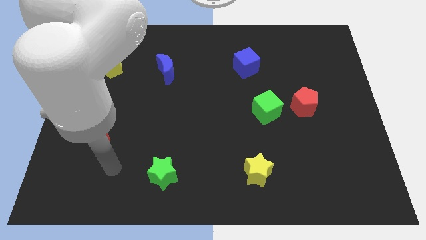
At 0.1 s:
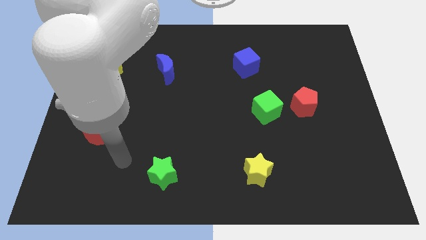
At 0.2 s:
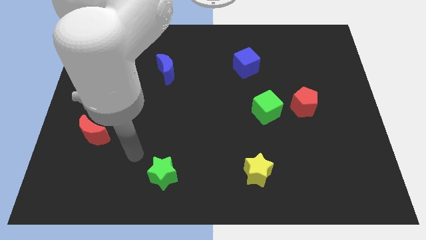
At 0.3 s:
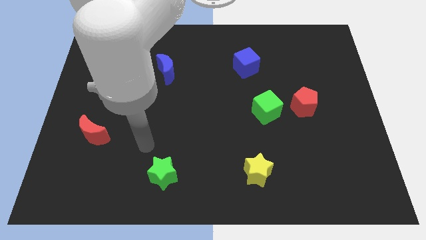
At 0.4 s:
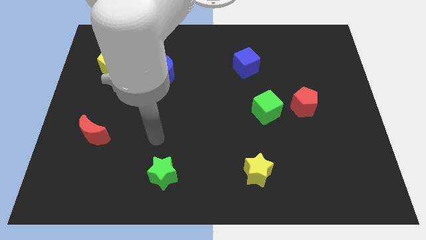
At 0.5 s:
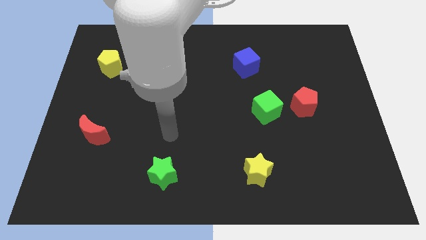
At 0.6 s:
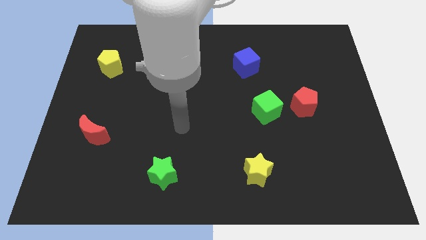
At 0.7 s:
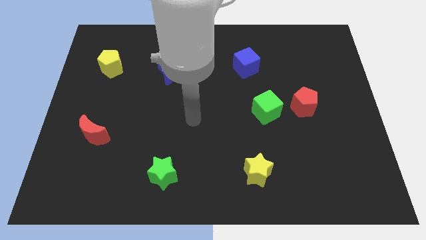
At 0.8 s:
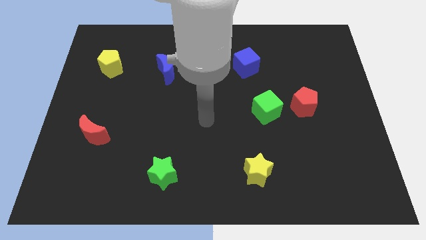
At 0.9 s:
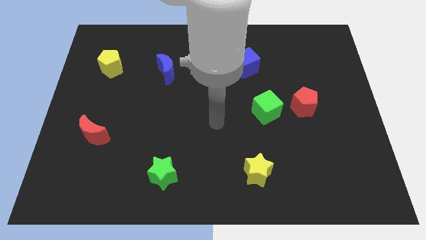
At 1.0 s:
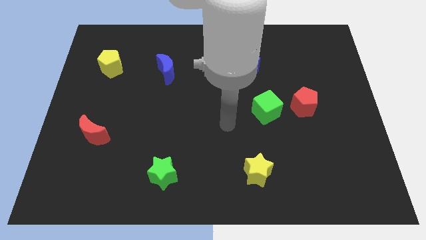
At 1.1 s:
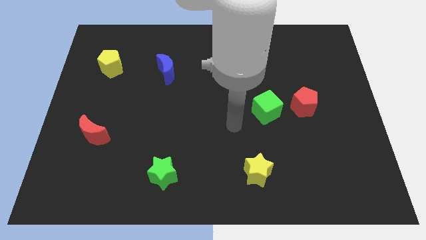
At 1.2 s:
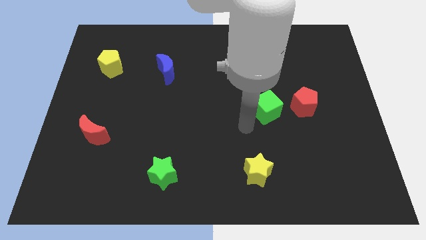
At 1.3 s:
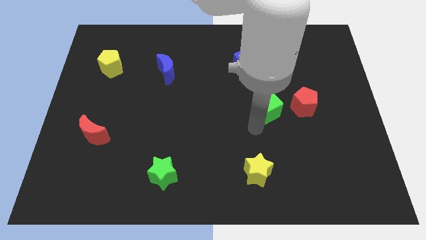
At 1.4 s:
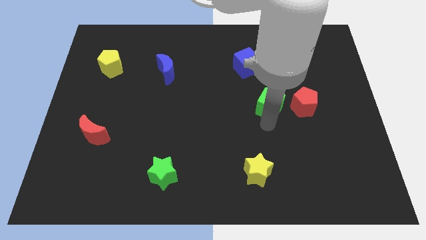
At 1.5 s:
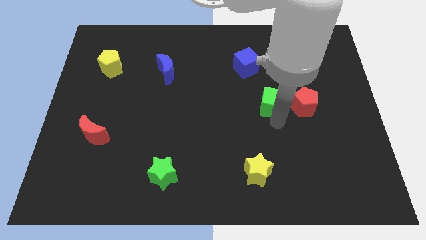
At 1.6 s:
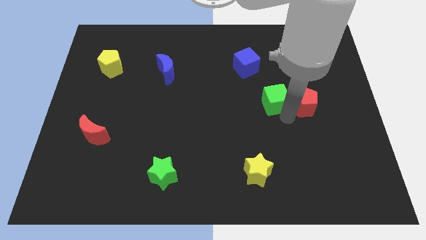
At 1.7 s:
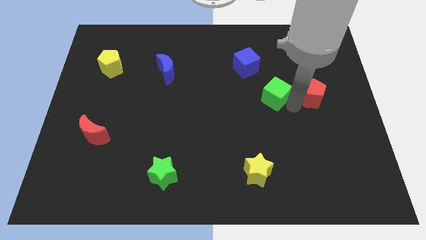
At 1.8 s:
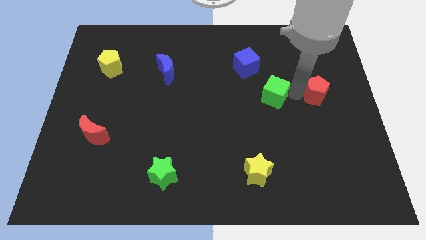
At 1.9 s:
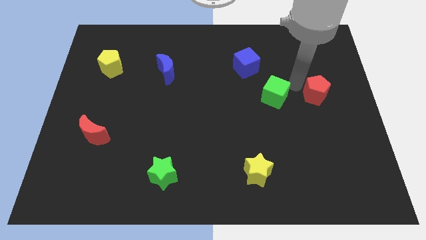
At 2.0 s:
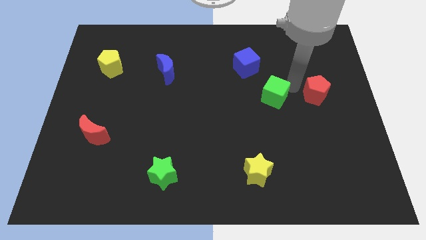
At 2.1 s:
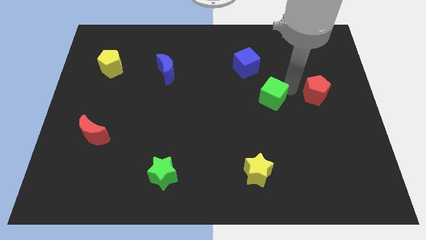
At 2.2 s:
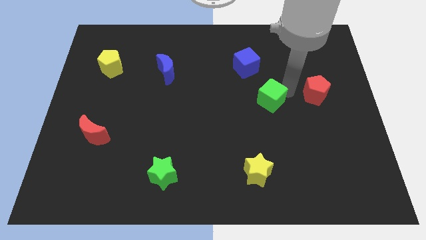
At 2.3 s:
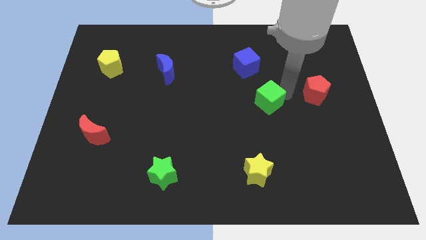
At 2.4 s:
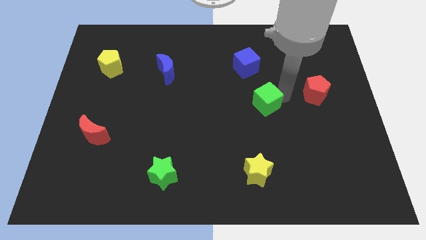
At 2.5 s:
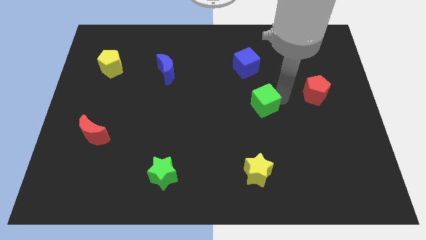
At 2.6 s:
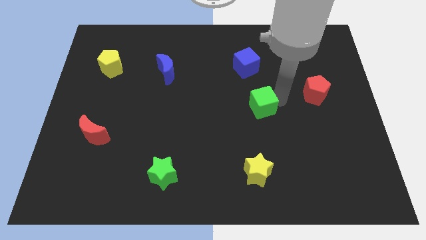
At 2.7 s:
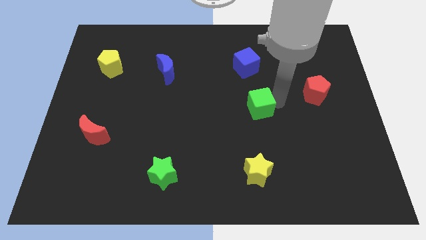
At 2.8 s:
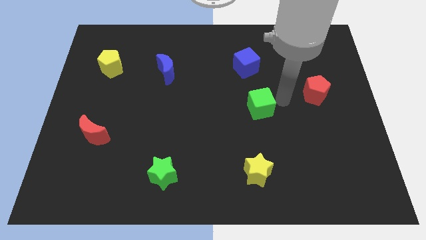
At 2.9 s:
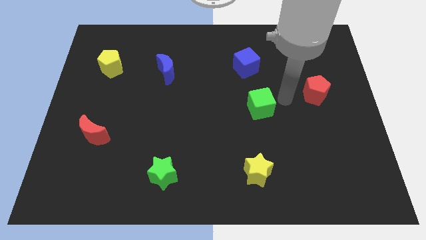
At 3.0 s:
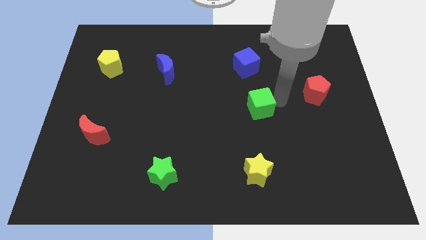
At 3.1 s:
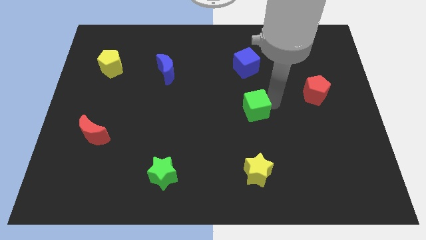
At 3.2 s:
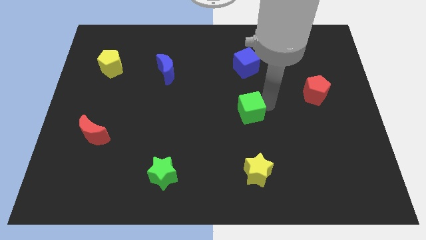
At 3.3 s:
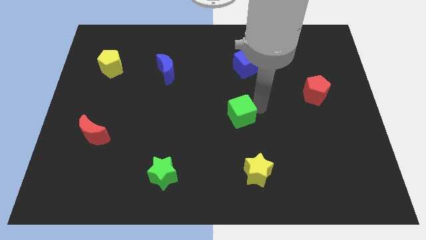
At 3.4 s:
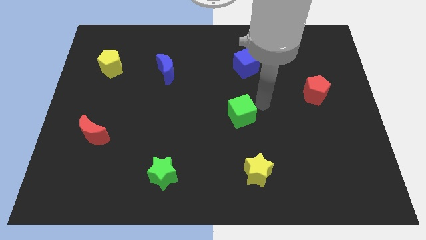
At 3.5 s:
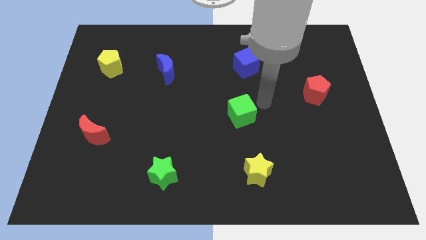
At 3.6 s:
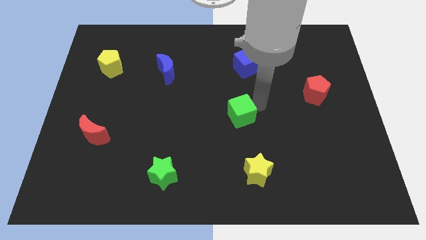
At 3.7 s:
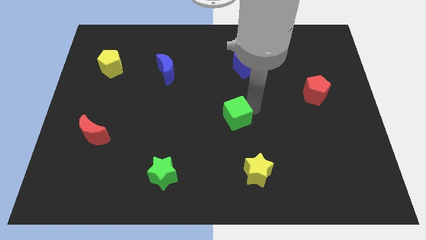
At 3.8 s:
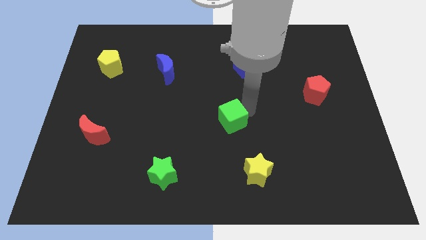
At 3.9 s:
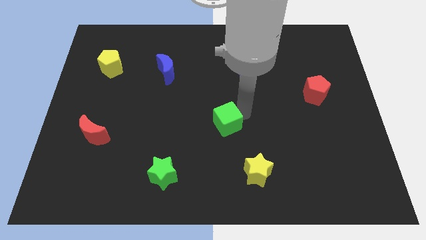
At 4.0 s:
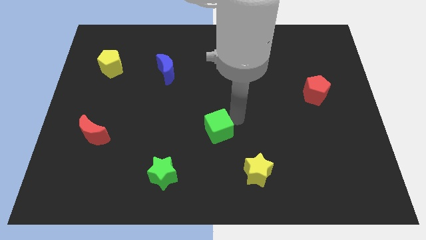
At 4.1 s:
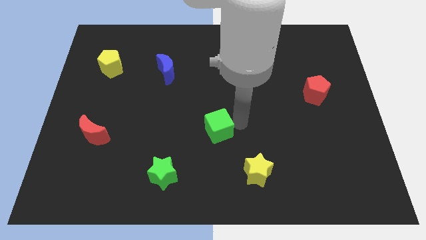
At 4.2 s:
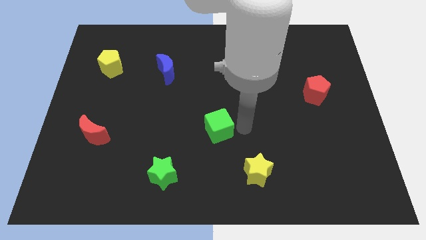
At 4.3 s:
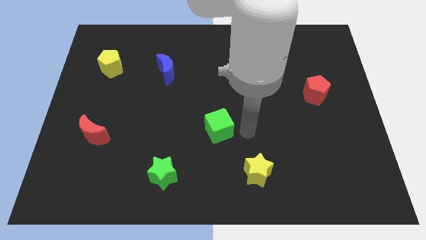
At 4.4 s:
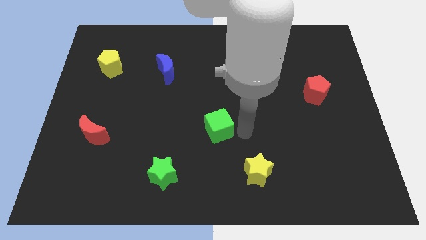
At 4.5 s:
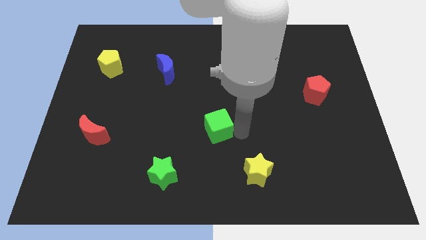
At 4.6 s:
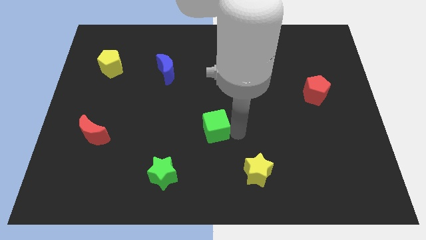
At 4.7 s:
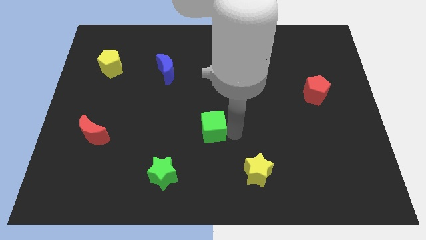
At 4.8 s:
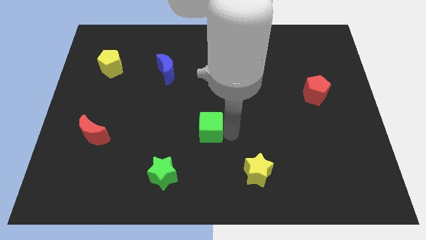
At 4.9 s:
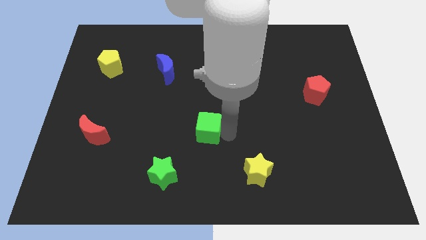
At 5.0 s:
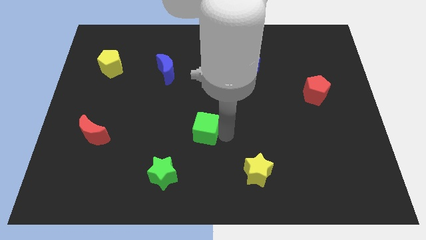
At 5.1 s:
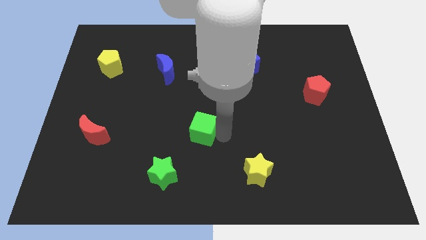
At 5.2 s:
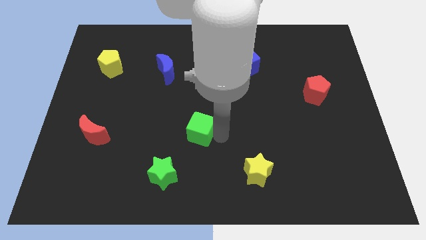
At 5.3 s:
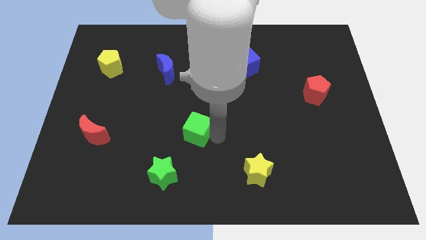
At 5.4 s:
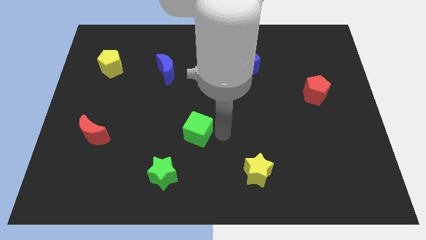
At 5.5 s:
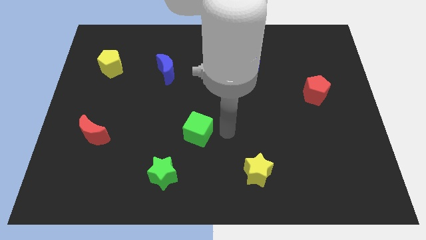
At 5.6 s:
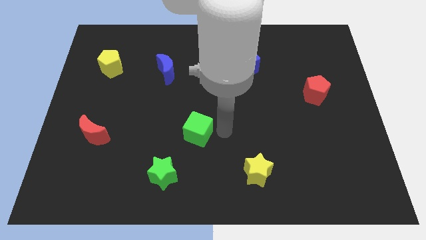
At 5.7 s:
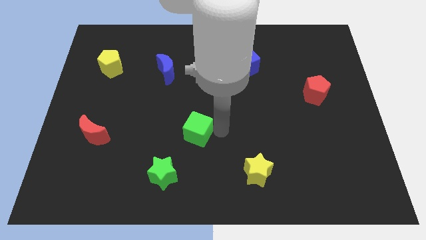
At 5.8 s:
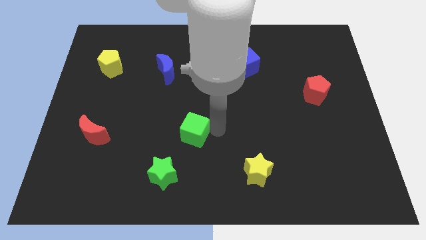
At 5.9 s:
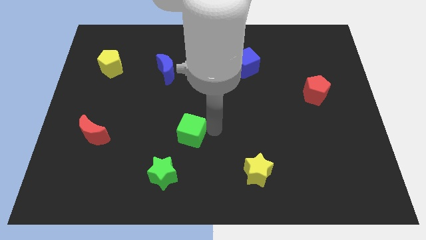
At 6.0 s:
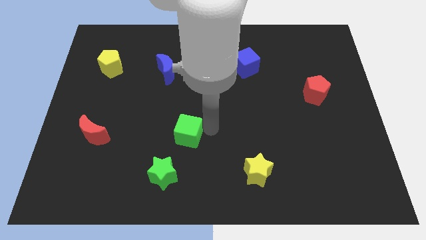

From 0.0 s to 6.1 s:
put the green cube above the green star

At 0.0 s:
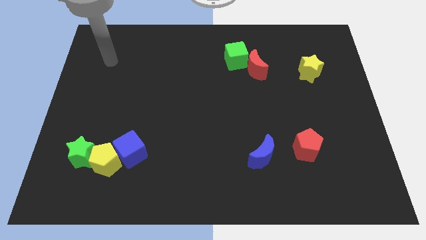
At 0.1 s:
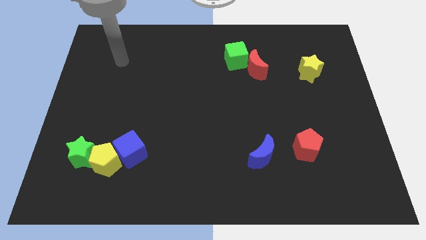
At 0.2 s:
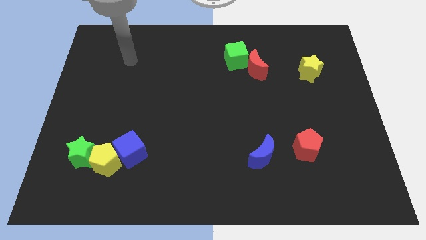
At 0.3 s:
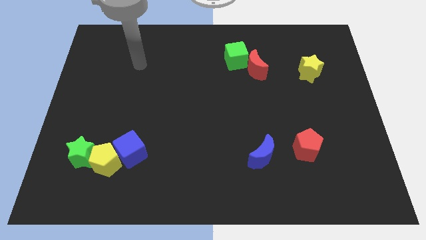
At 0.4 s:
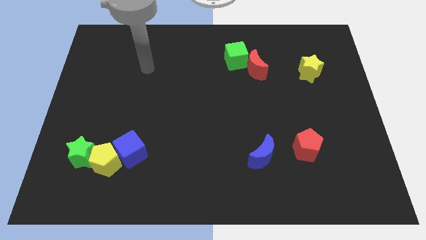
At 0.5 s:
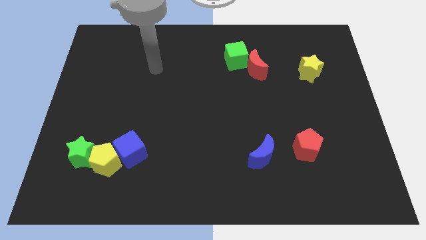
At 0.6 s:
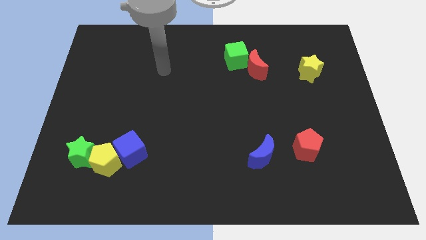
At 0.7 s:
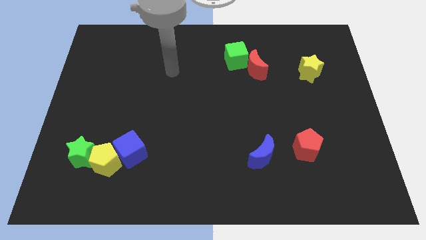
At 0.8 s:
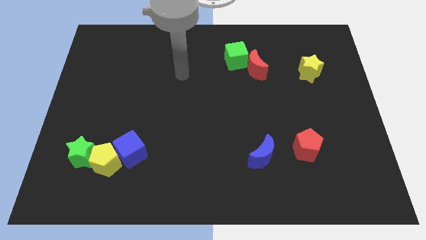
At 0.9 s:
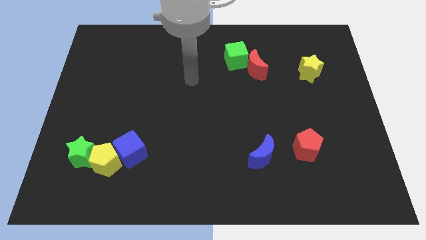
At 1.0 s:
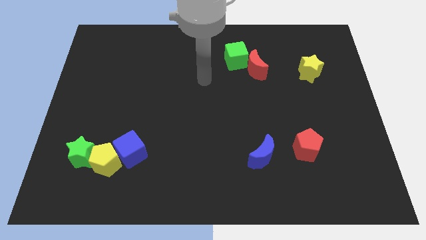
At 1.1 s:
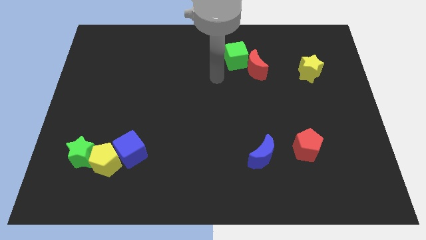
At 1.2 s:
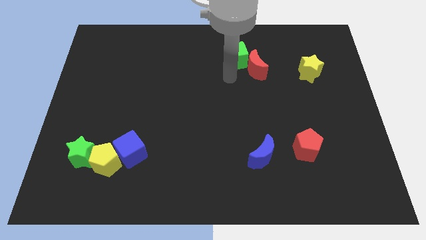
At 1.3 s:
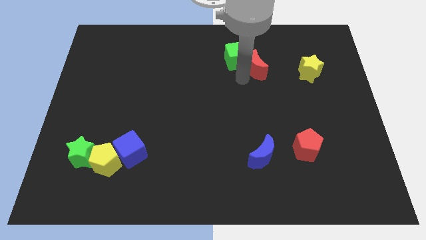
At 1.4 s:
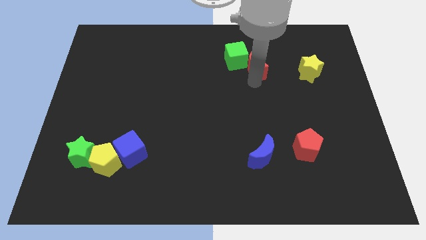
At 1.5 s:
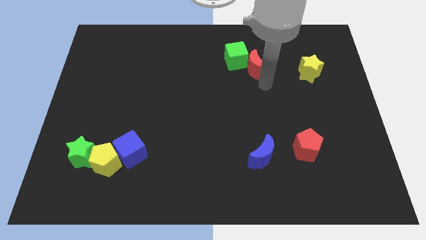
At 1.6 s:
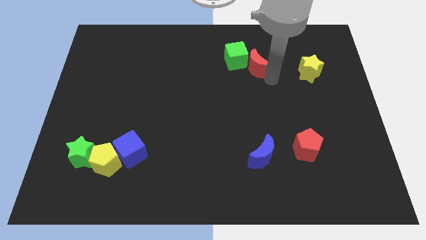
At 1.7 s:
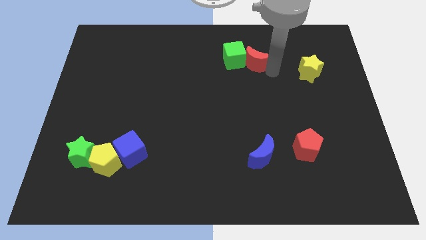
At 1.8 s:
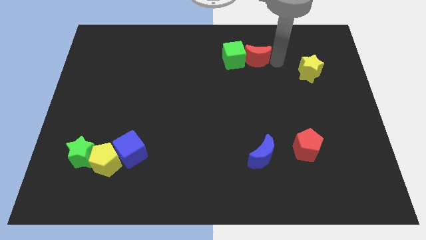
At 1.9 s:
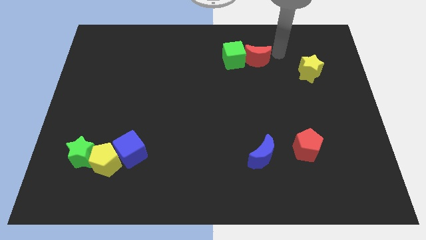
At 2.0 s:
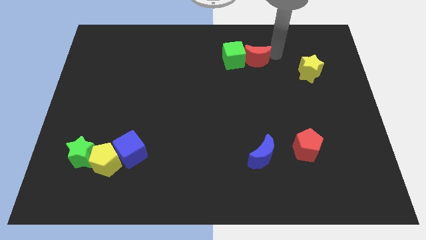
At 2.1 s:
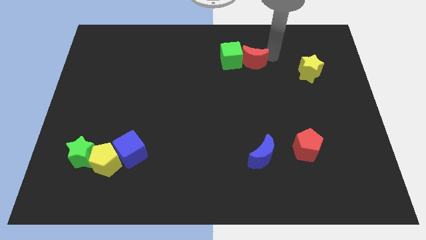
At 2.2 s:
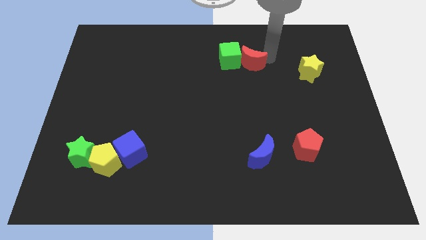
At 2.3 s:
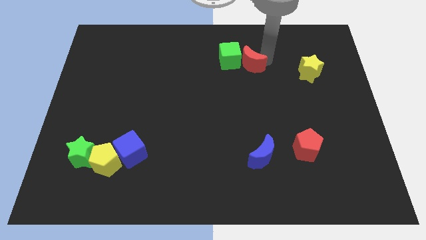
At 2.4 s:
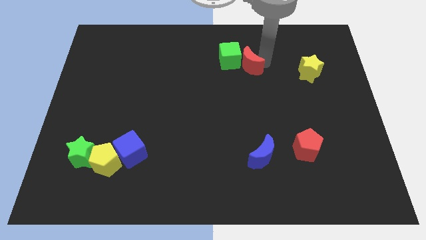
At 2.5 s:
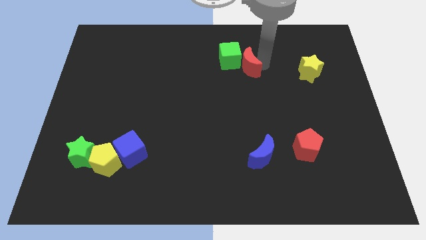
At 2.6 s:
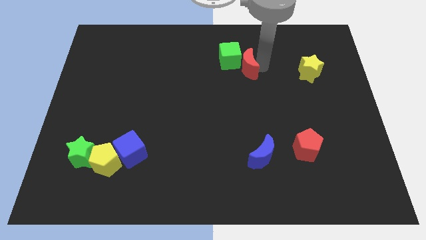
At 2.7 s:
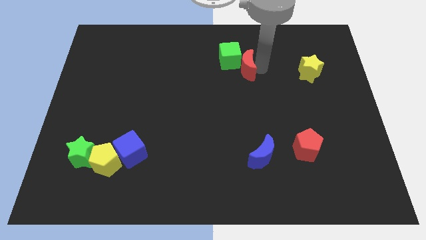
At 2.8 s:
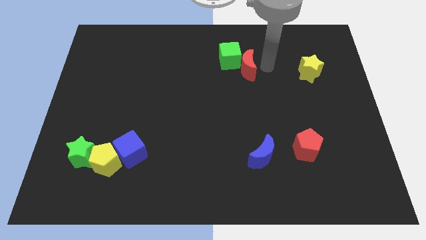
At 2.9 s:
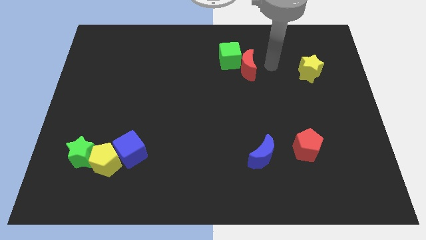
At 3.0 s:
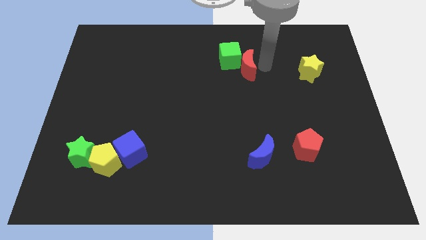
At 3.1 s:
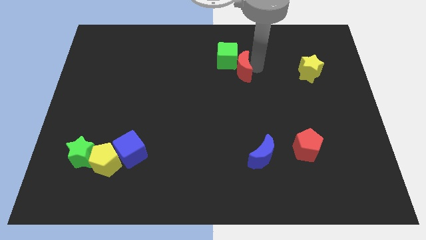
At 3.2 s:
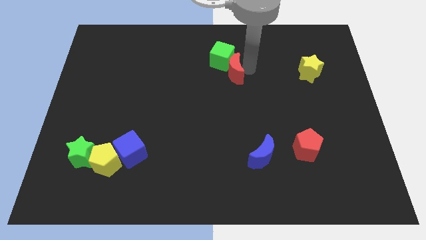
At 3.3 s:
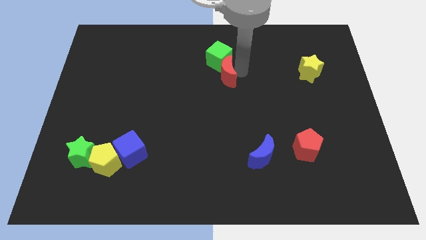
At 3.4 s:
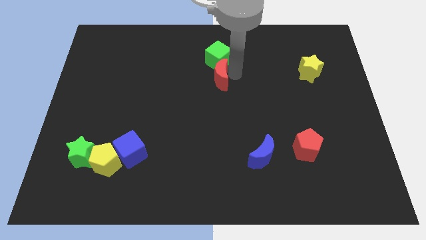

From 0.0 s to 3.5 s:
slide the red moon diagonally down and to the left of the green cube
